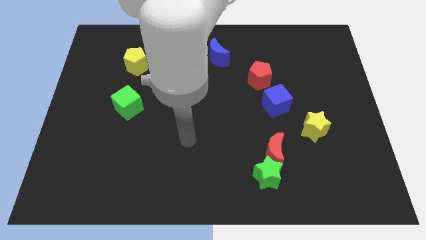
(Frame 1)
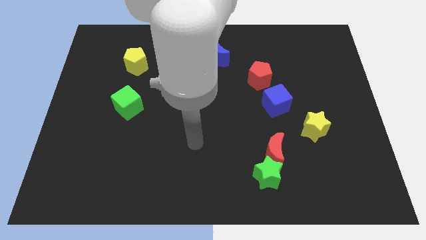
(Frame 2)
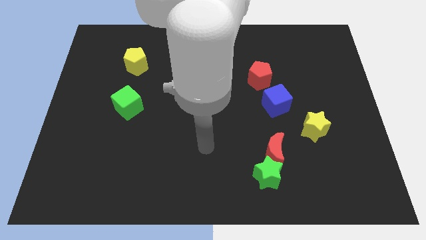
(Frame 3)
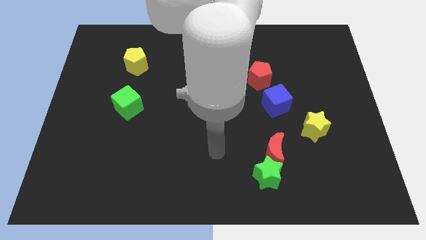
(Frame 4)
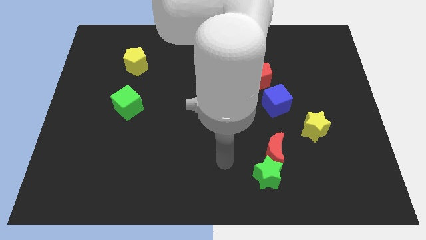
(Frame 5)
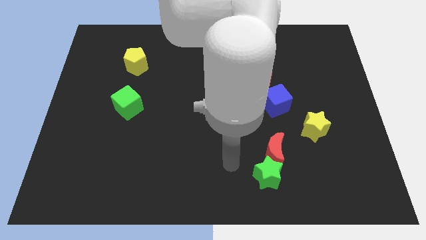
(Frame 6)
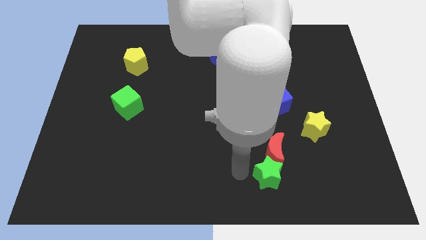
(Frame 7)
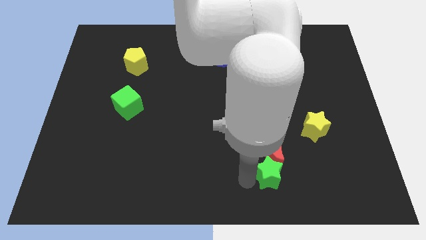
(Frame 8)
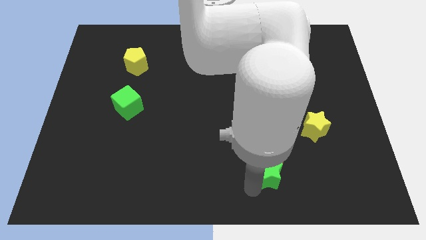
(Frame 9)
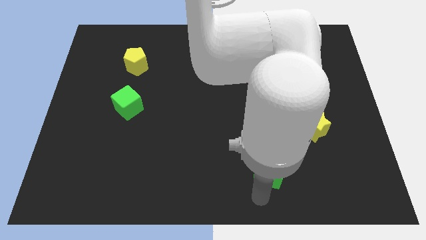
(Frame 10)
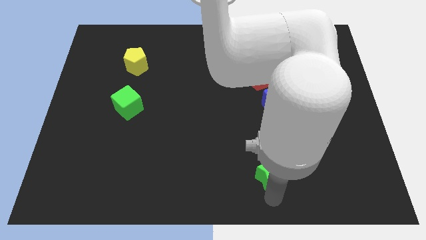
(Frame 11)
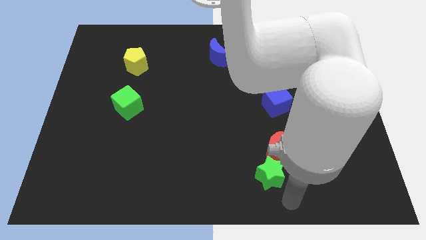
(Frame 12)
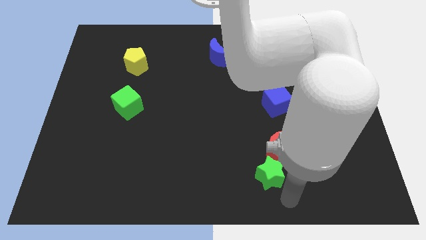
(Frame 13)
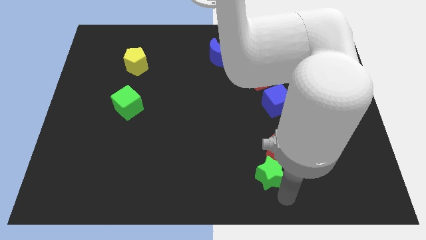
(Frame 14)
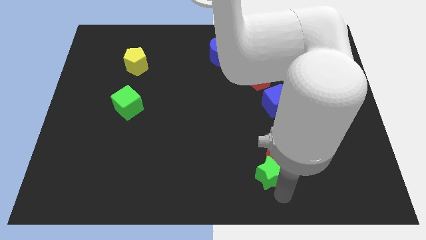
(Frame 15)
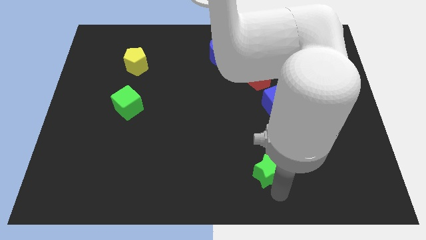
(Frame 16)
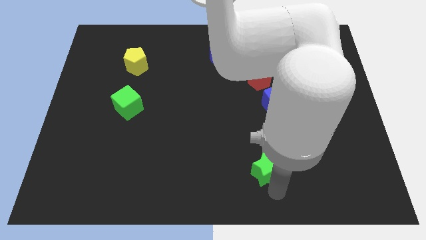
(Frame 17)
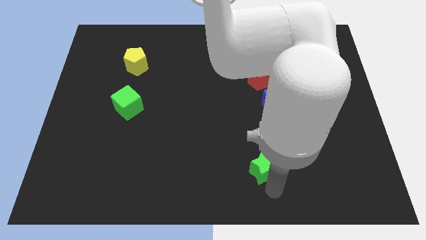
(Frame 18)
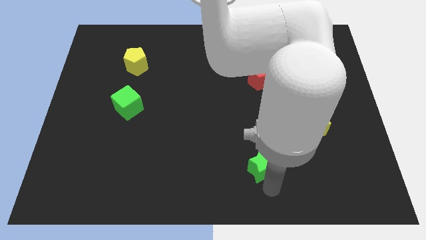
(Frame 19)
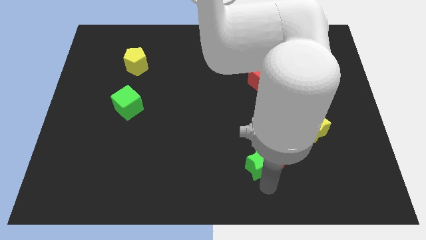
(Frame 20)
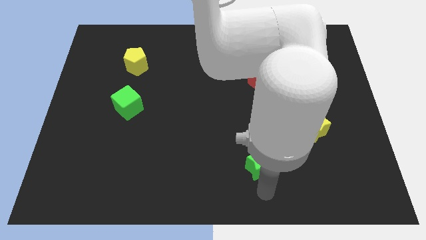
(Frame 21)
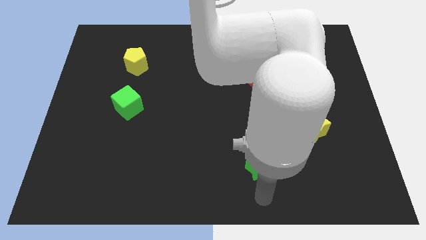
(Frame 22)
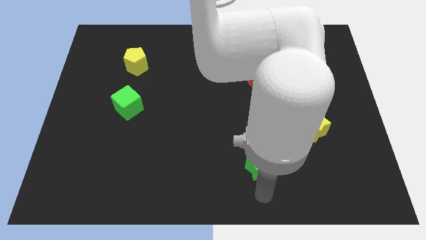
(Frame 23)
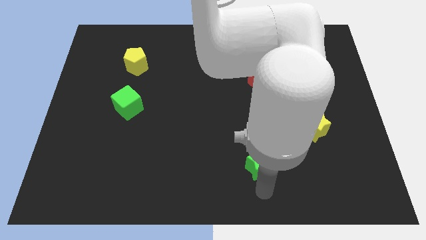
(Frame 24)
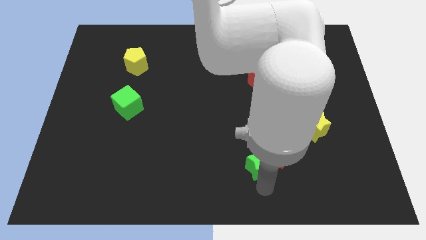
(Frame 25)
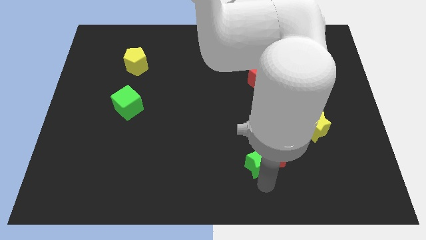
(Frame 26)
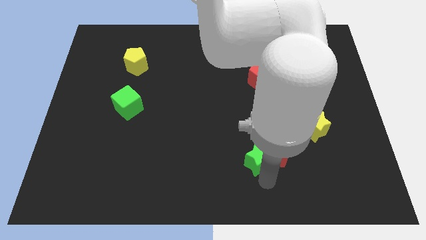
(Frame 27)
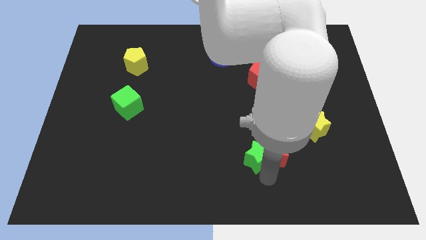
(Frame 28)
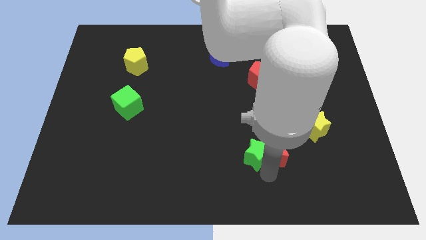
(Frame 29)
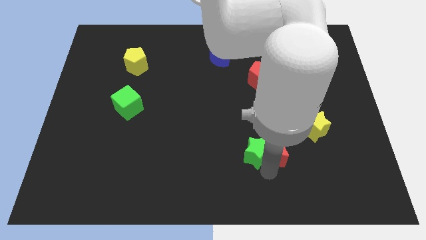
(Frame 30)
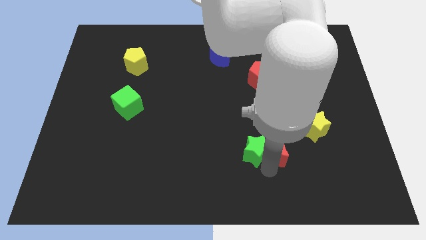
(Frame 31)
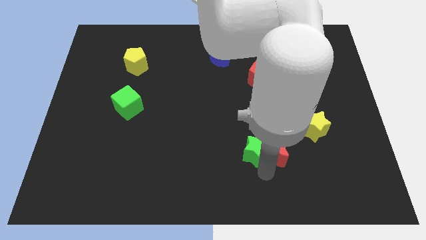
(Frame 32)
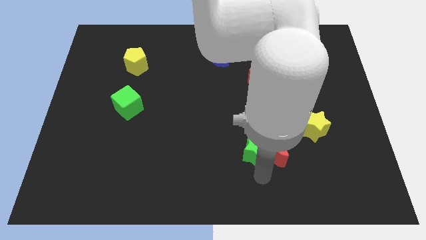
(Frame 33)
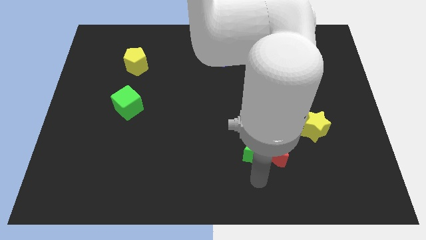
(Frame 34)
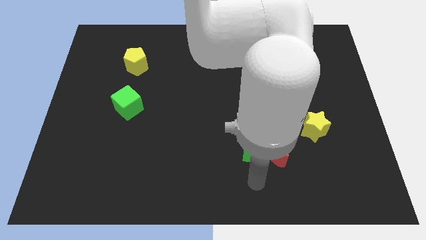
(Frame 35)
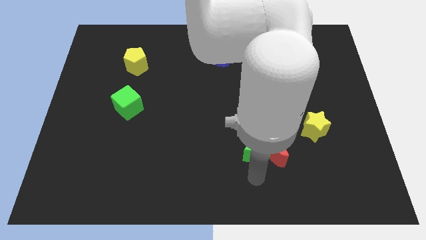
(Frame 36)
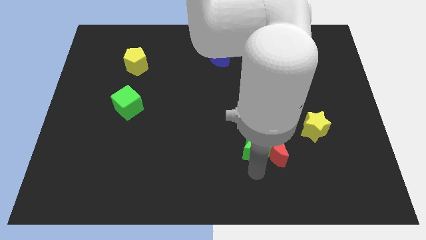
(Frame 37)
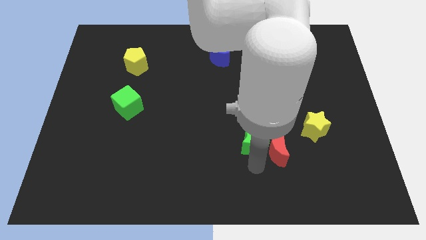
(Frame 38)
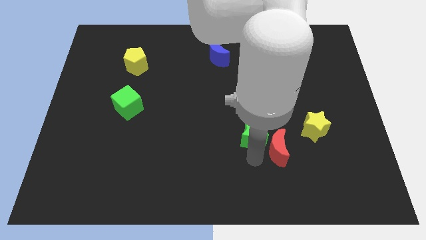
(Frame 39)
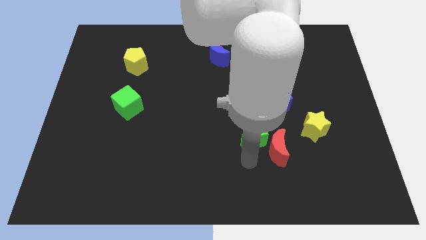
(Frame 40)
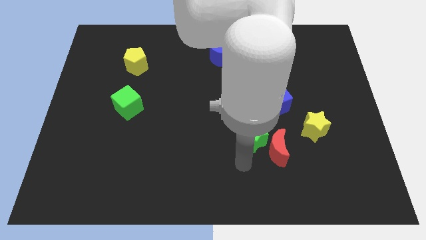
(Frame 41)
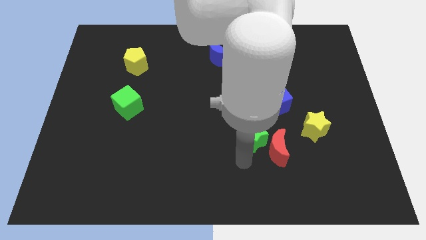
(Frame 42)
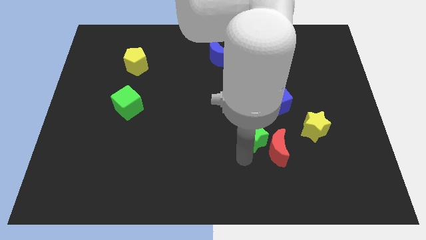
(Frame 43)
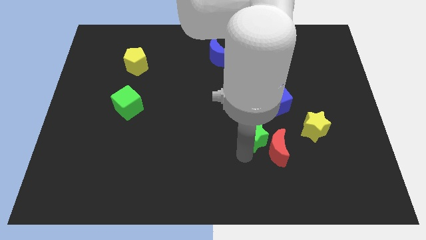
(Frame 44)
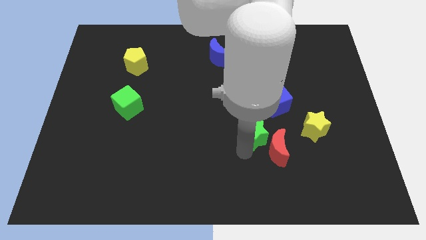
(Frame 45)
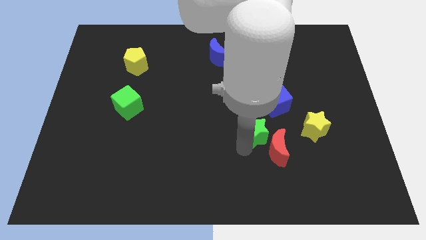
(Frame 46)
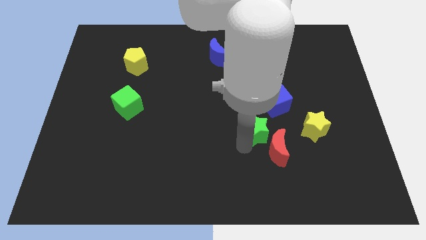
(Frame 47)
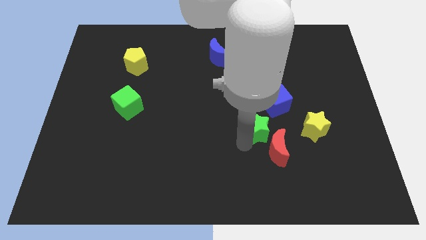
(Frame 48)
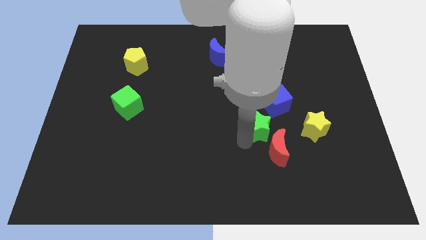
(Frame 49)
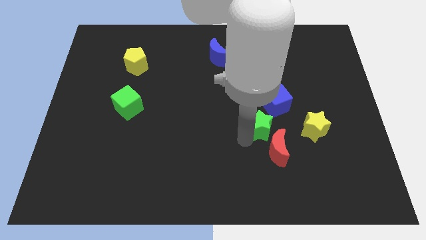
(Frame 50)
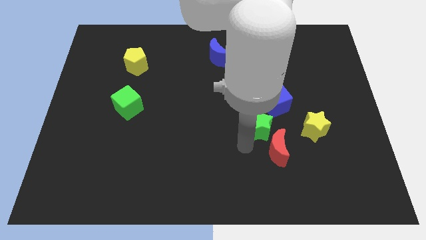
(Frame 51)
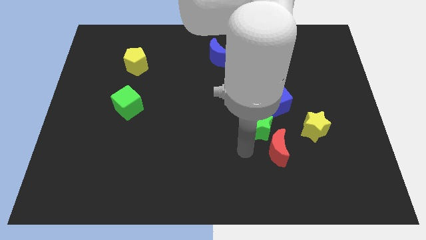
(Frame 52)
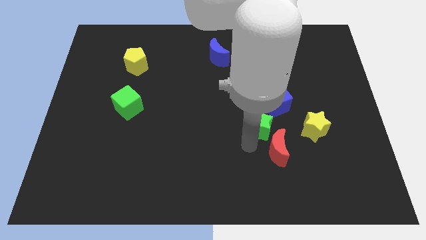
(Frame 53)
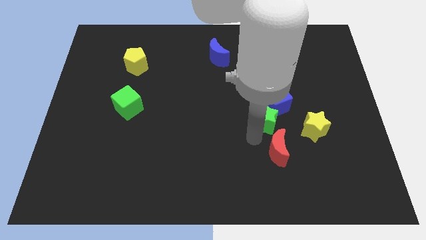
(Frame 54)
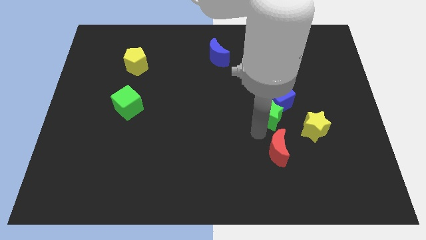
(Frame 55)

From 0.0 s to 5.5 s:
put the green star towards the blue cube
